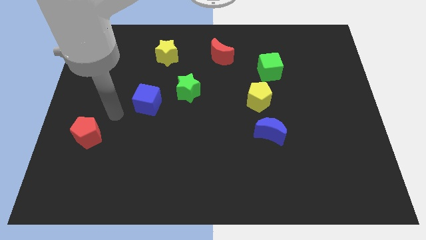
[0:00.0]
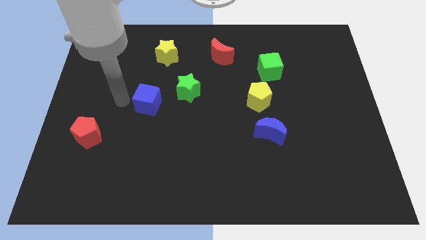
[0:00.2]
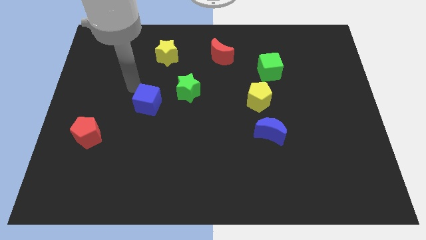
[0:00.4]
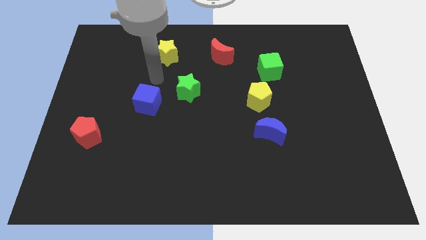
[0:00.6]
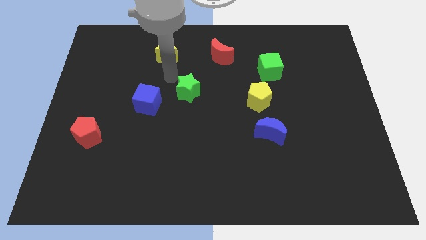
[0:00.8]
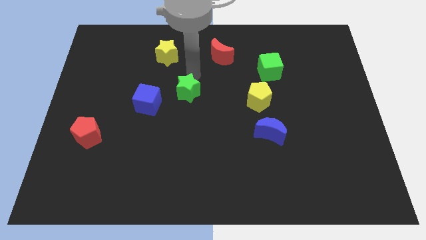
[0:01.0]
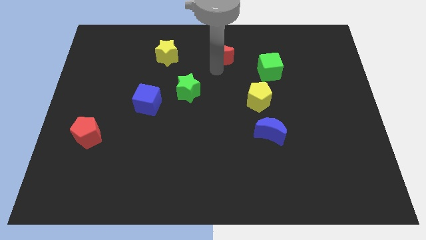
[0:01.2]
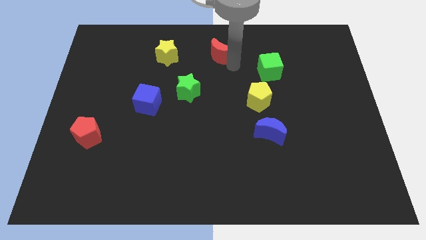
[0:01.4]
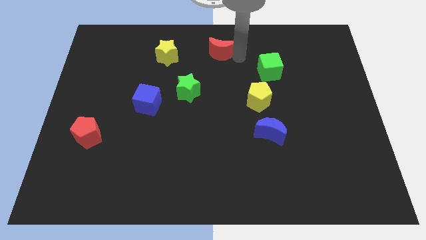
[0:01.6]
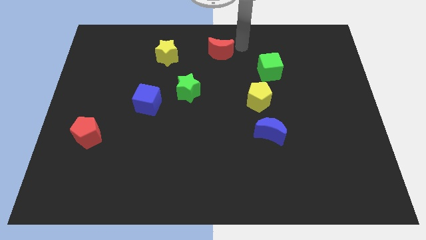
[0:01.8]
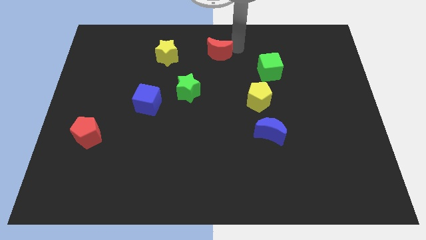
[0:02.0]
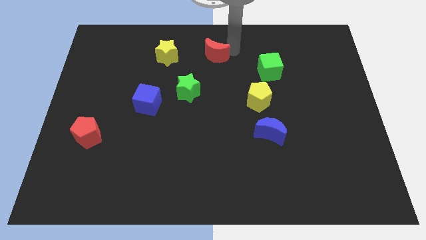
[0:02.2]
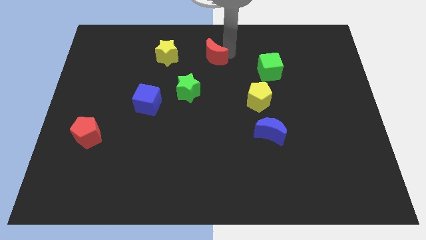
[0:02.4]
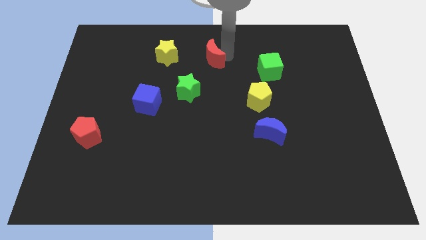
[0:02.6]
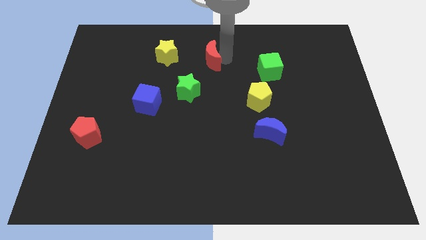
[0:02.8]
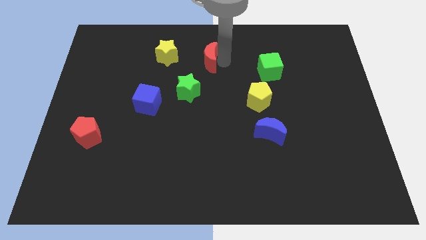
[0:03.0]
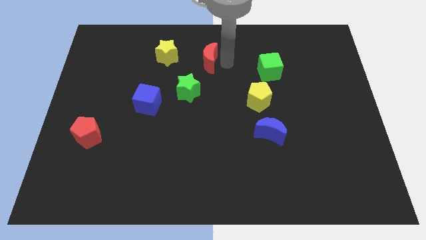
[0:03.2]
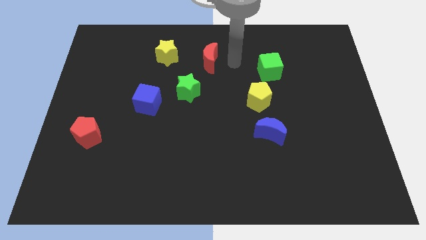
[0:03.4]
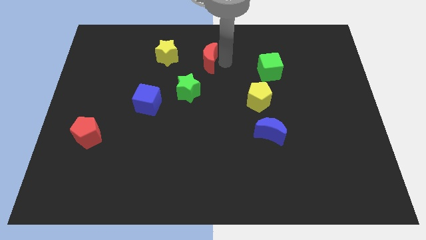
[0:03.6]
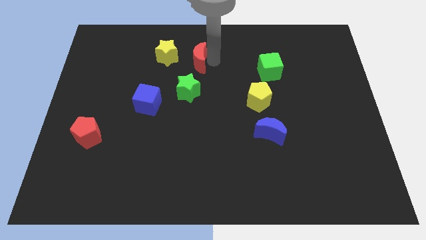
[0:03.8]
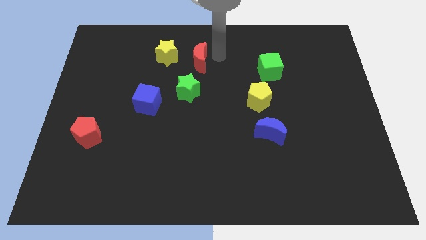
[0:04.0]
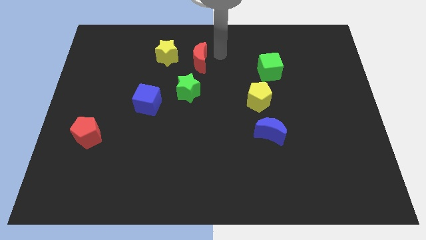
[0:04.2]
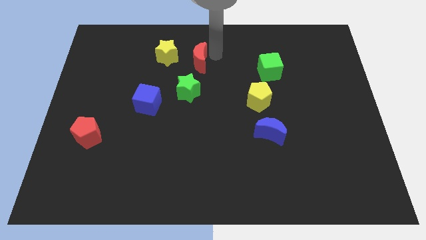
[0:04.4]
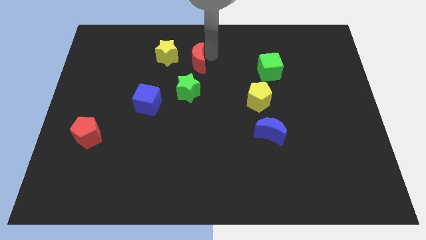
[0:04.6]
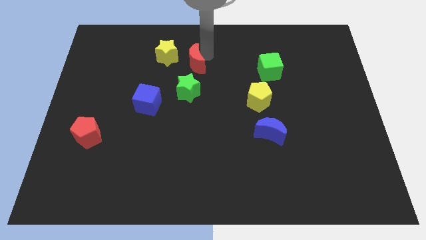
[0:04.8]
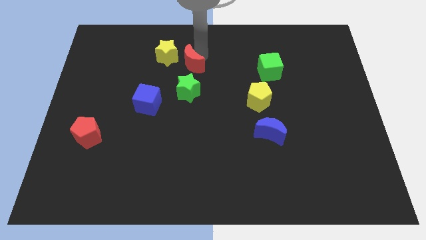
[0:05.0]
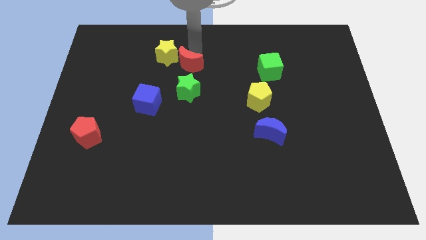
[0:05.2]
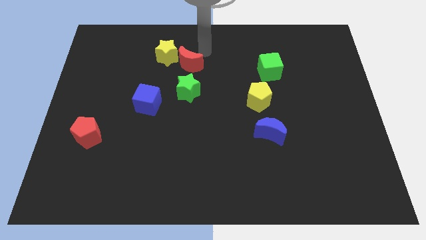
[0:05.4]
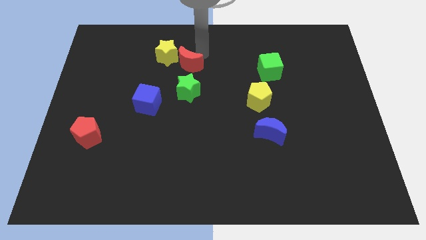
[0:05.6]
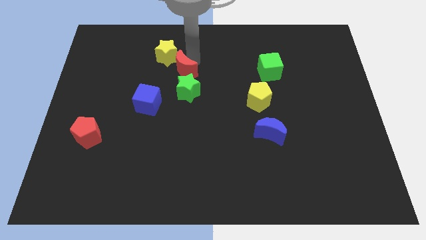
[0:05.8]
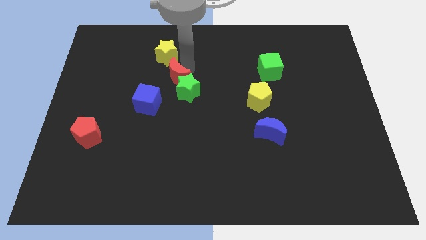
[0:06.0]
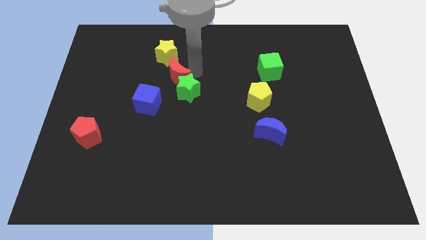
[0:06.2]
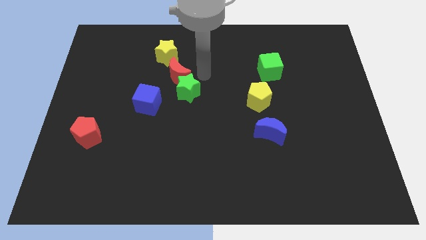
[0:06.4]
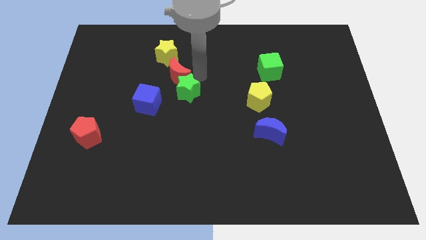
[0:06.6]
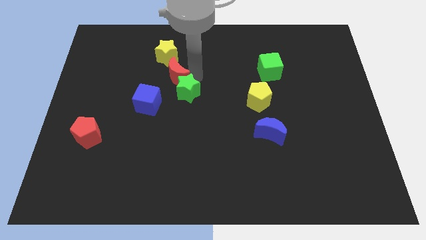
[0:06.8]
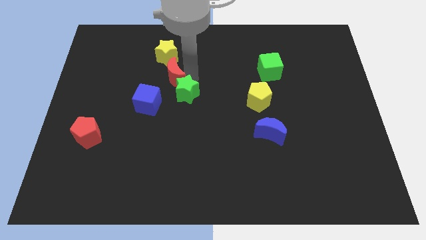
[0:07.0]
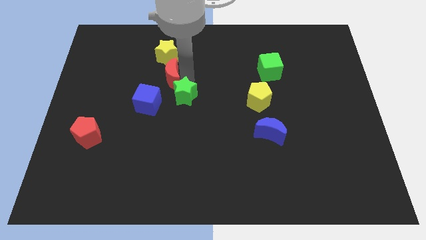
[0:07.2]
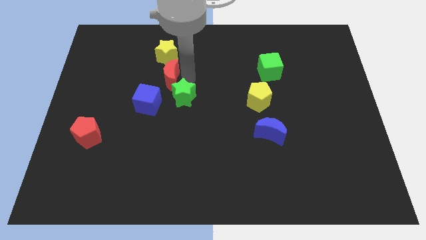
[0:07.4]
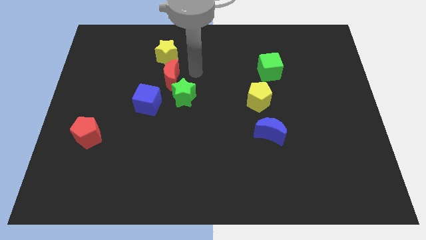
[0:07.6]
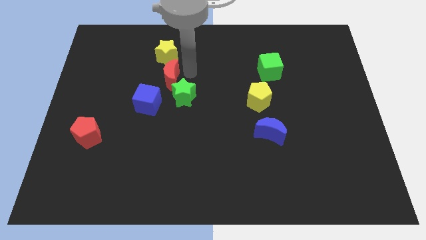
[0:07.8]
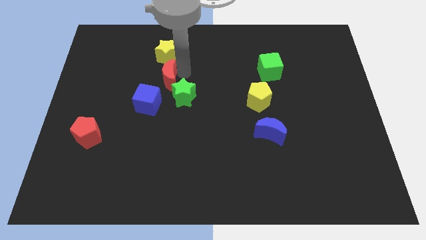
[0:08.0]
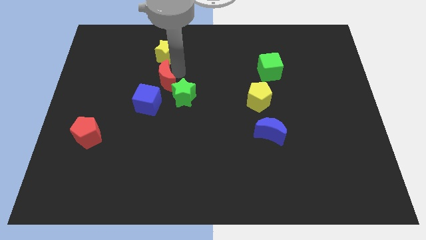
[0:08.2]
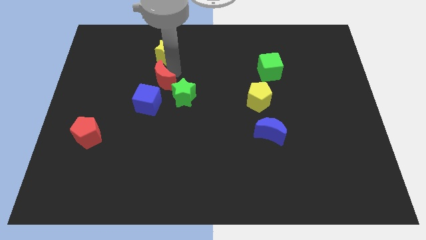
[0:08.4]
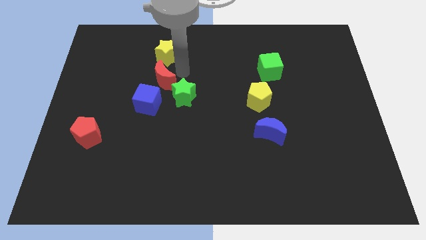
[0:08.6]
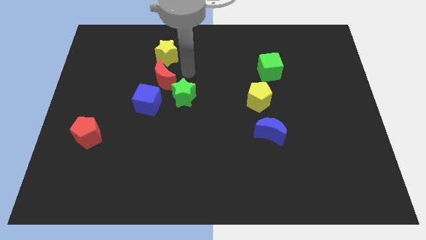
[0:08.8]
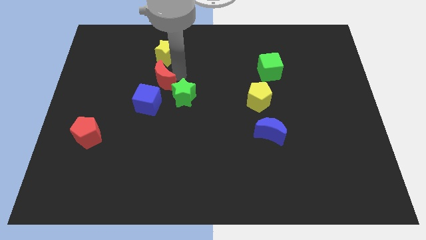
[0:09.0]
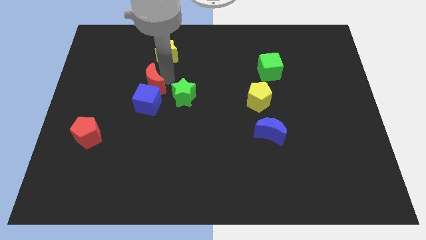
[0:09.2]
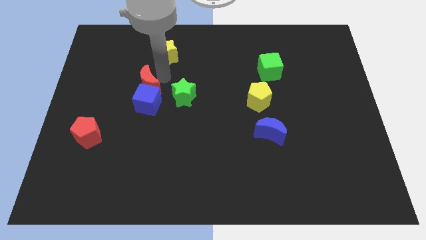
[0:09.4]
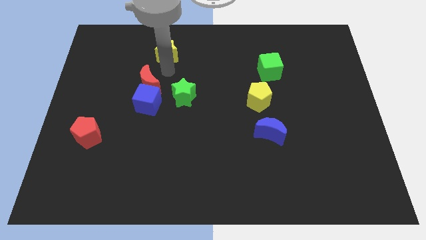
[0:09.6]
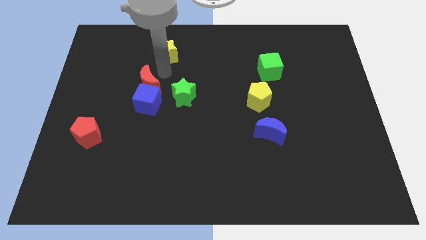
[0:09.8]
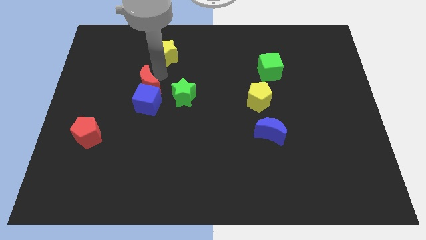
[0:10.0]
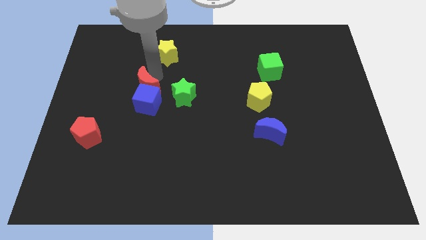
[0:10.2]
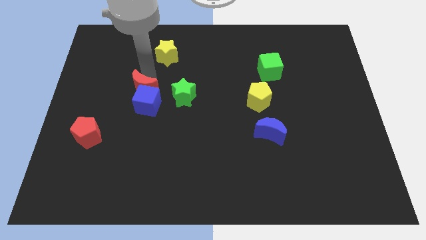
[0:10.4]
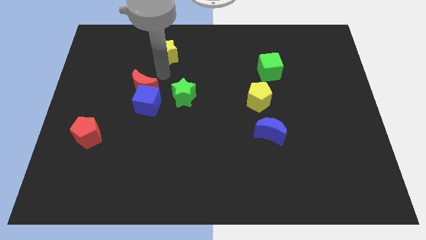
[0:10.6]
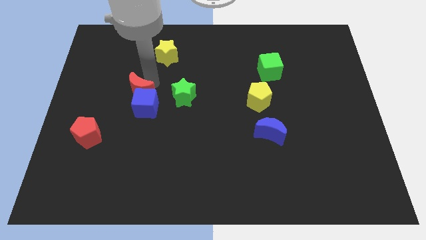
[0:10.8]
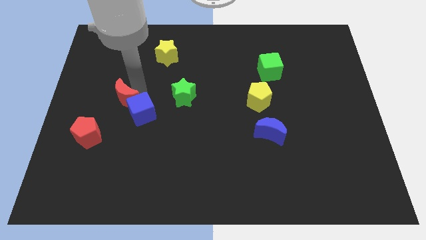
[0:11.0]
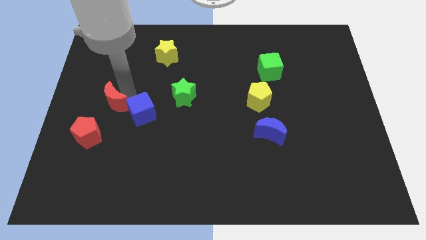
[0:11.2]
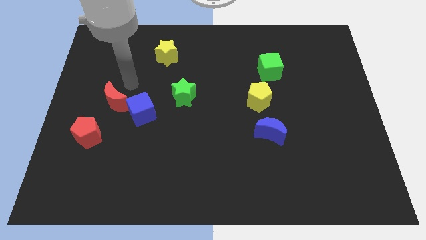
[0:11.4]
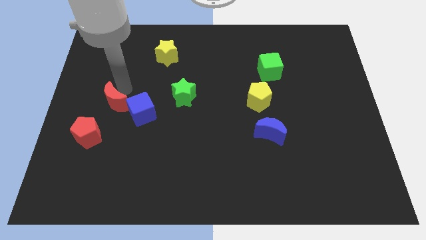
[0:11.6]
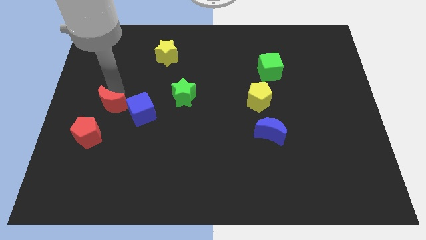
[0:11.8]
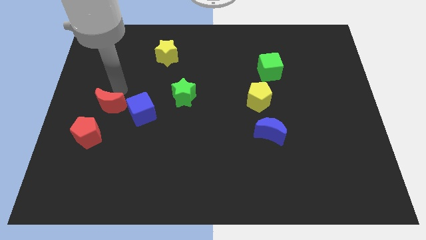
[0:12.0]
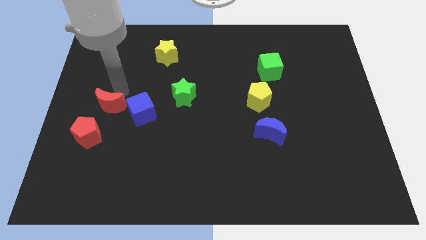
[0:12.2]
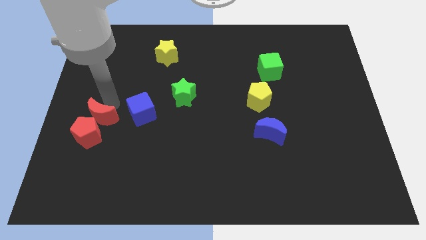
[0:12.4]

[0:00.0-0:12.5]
move the red moon close to the red pentagon
